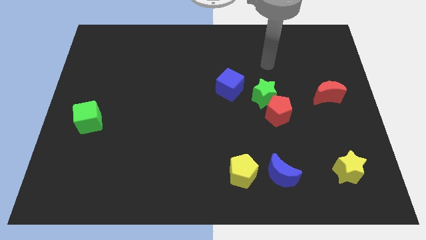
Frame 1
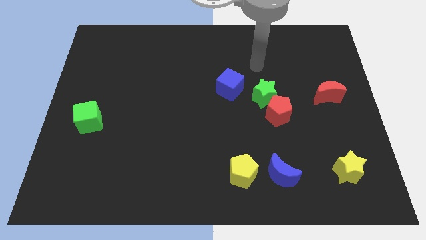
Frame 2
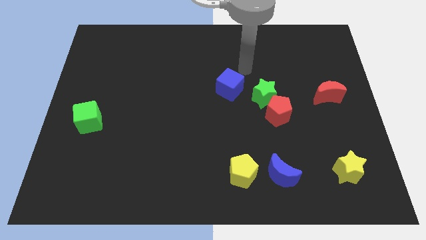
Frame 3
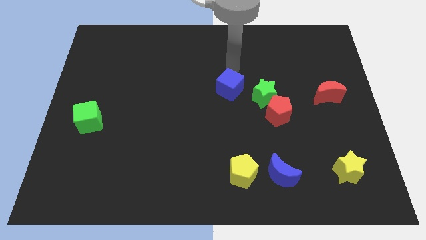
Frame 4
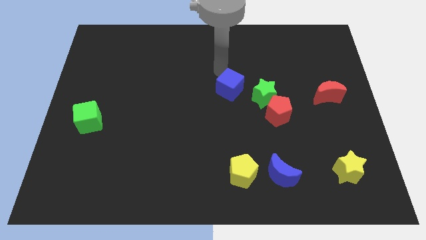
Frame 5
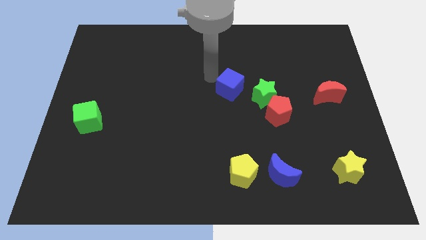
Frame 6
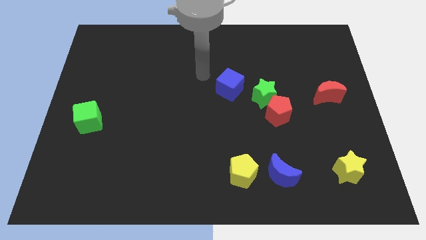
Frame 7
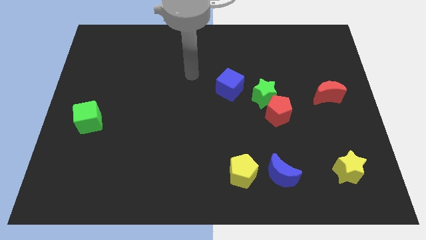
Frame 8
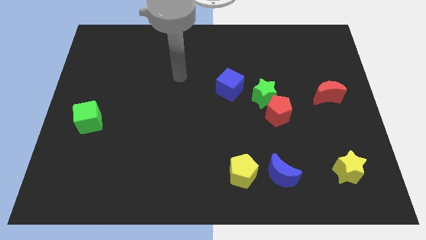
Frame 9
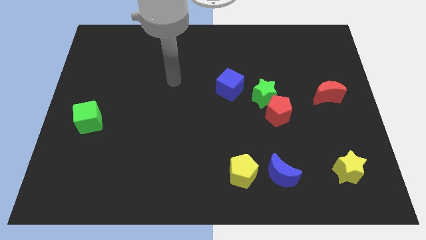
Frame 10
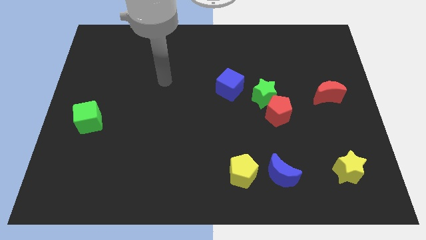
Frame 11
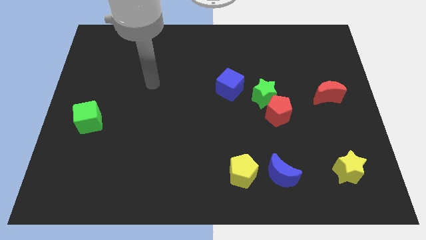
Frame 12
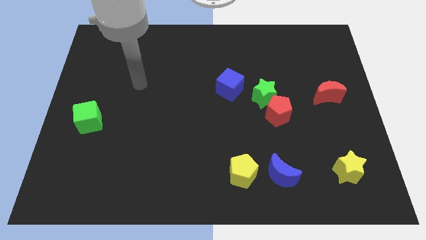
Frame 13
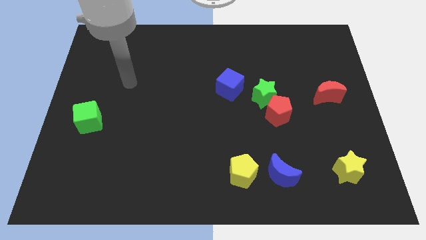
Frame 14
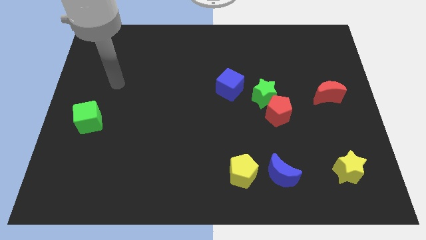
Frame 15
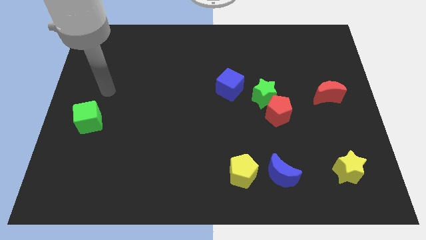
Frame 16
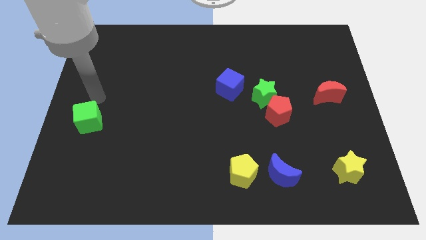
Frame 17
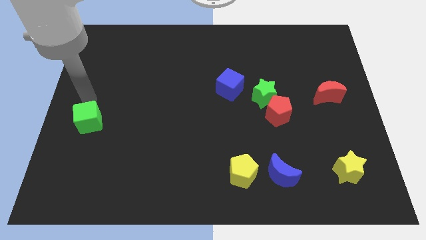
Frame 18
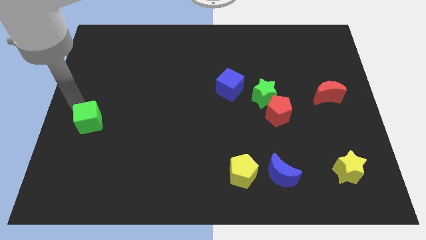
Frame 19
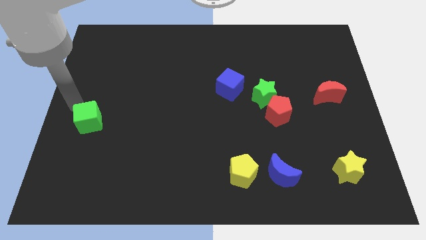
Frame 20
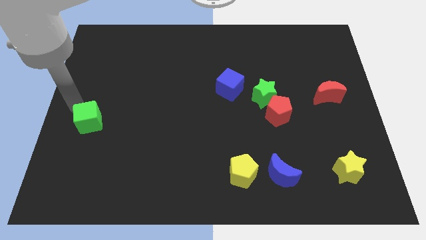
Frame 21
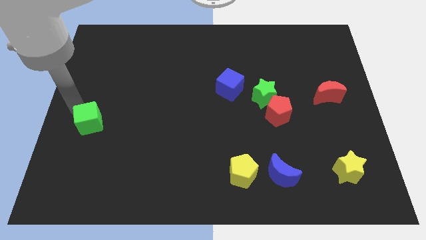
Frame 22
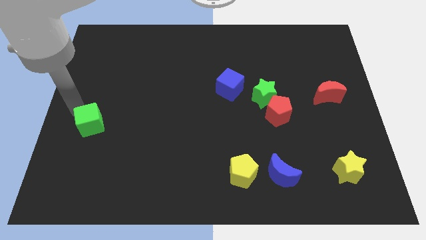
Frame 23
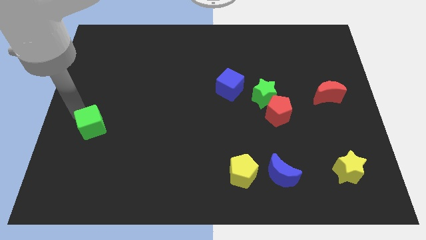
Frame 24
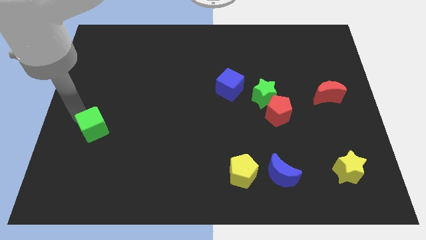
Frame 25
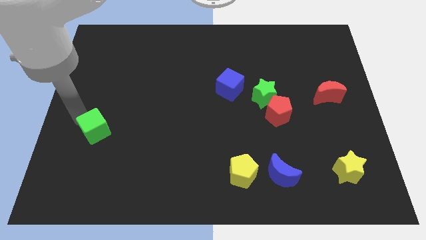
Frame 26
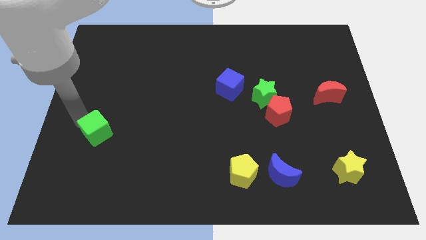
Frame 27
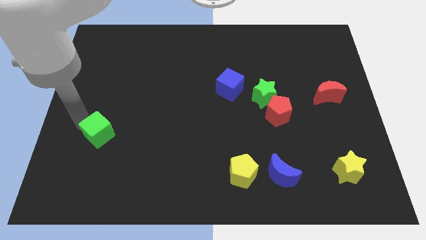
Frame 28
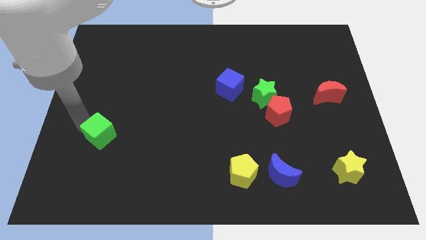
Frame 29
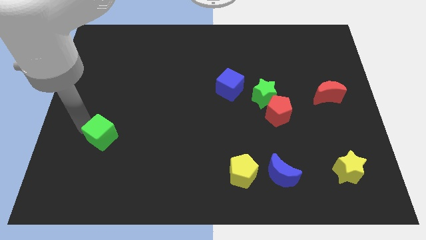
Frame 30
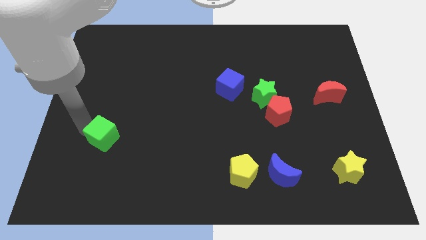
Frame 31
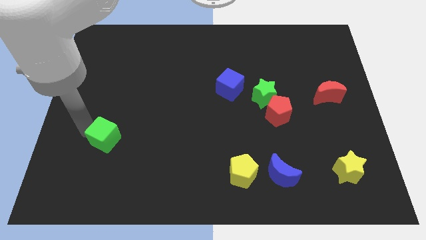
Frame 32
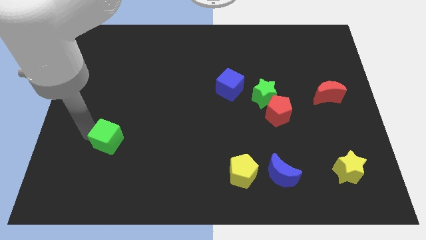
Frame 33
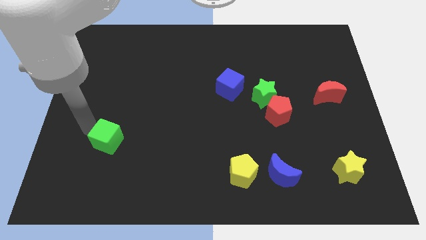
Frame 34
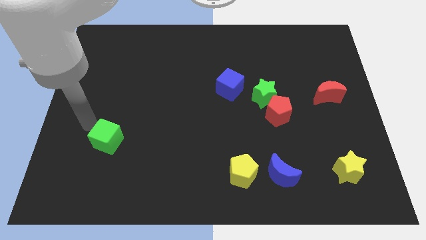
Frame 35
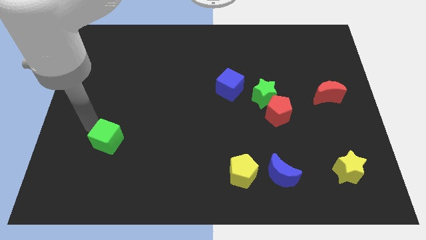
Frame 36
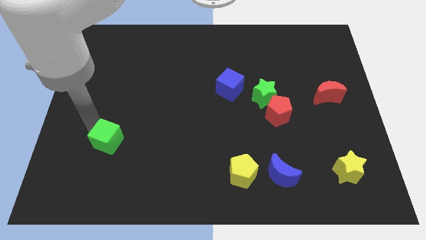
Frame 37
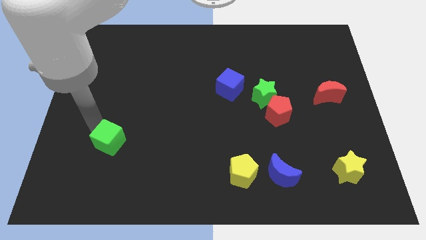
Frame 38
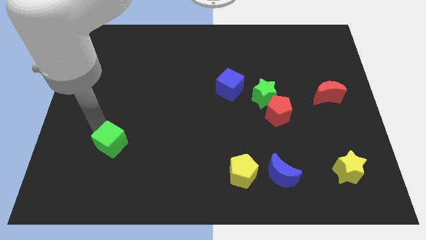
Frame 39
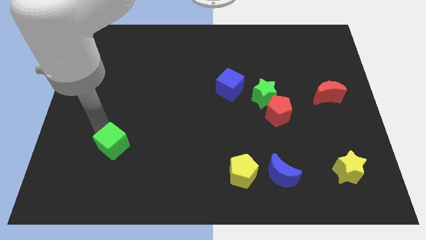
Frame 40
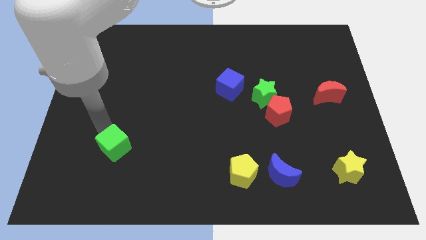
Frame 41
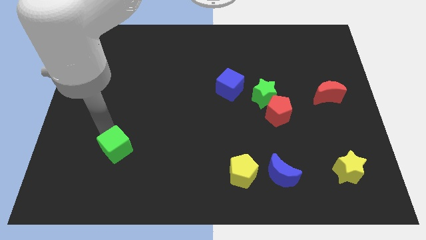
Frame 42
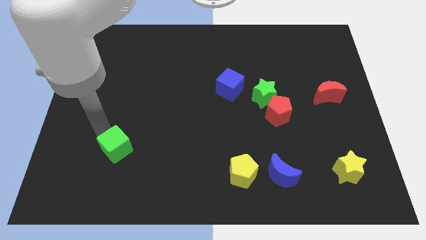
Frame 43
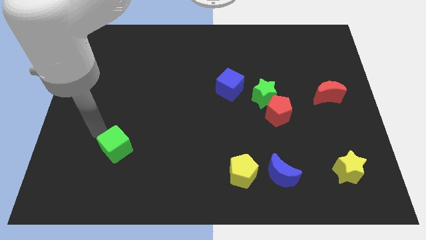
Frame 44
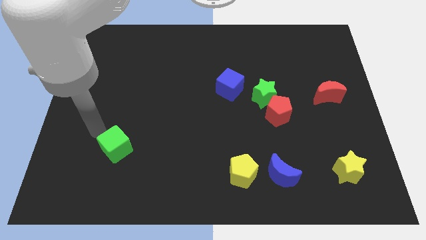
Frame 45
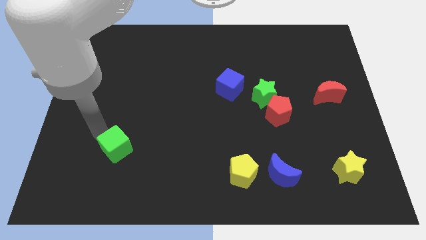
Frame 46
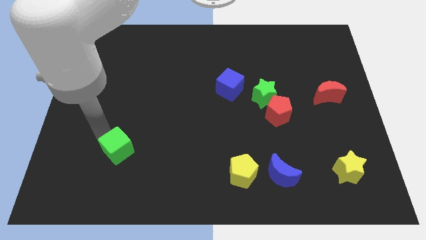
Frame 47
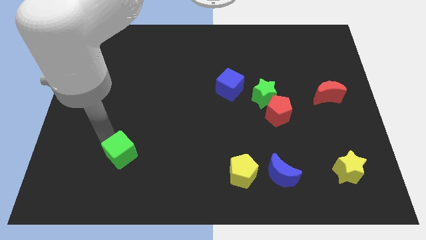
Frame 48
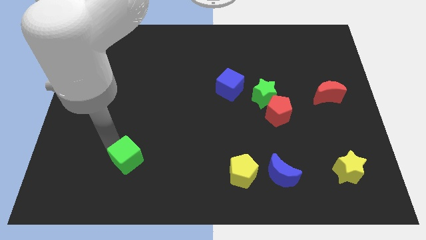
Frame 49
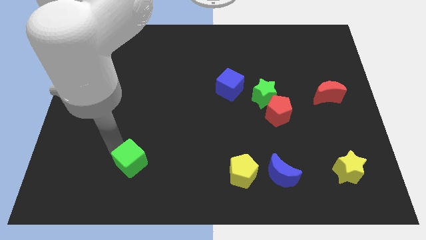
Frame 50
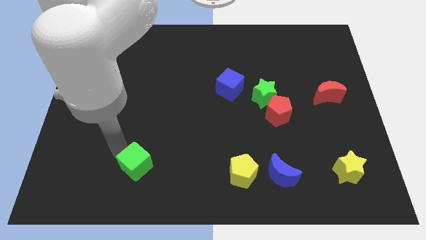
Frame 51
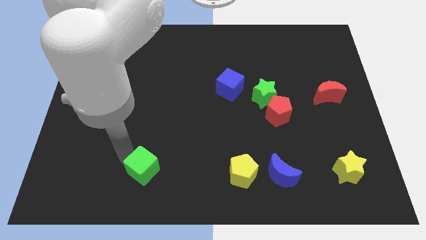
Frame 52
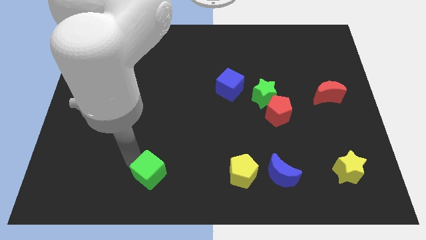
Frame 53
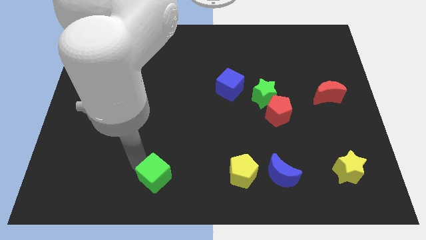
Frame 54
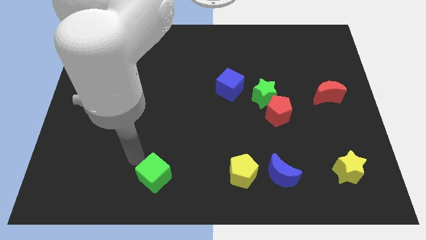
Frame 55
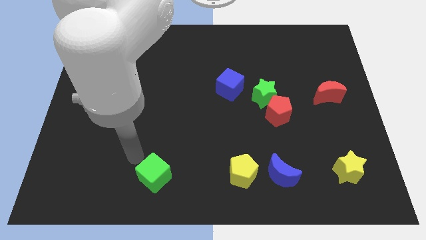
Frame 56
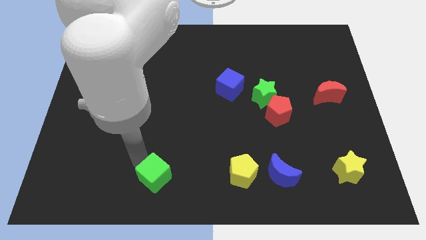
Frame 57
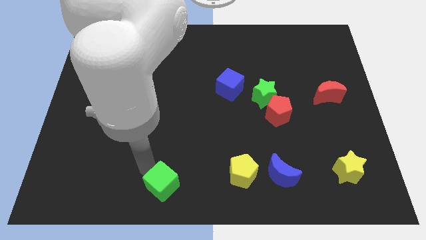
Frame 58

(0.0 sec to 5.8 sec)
push the green cube to the bottom
